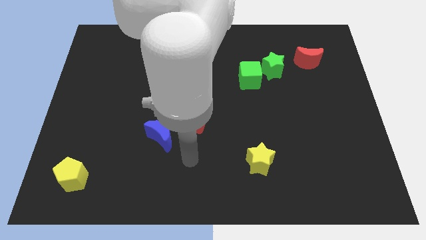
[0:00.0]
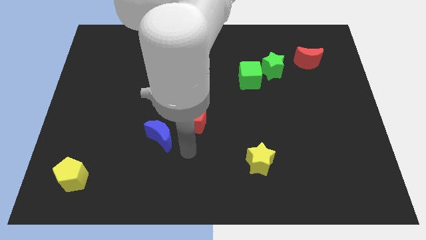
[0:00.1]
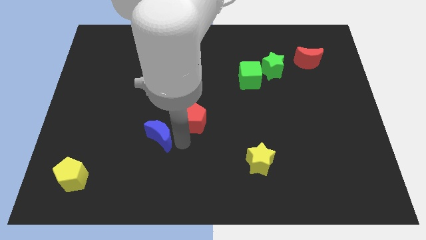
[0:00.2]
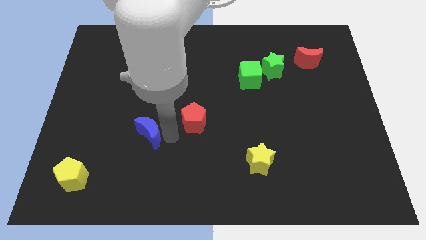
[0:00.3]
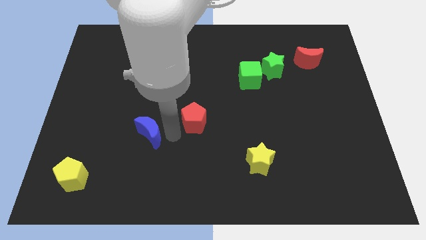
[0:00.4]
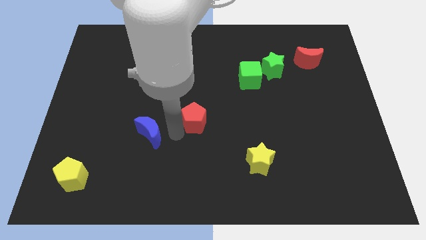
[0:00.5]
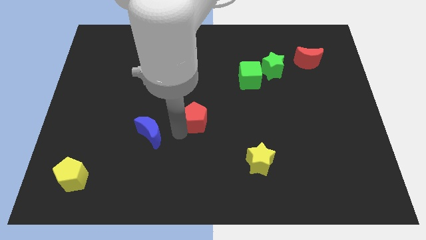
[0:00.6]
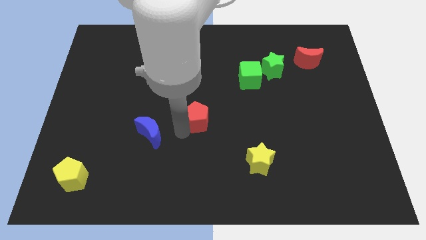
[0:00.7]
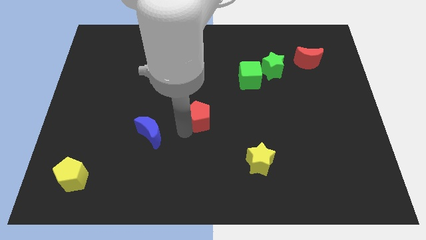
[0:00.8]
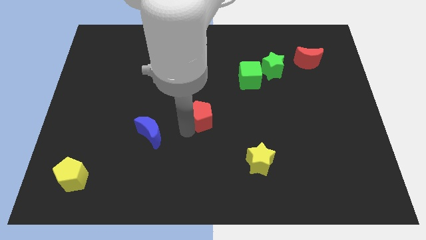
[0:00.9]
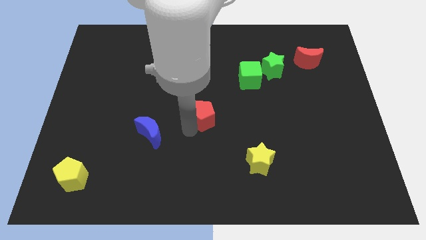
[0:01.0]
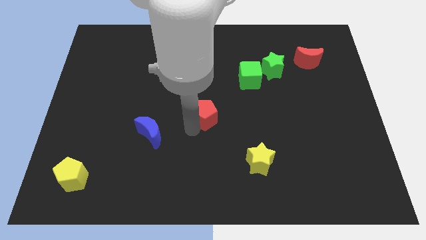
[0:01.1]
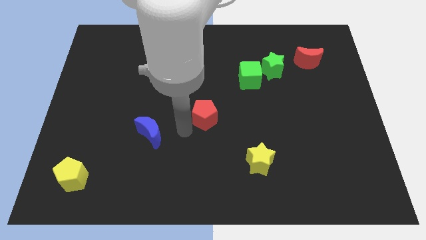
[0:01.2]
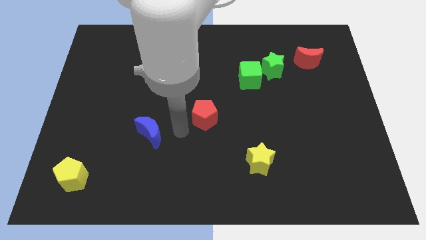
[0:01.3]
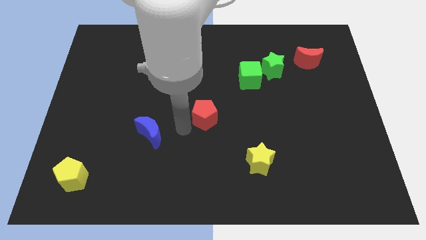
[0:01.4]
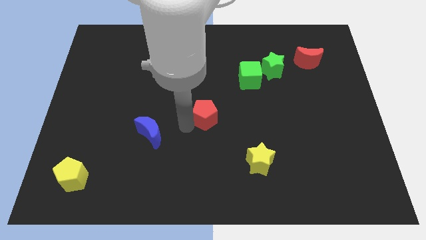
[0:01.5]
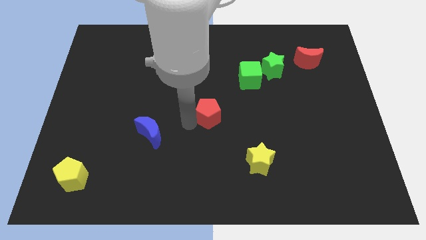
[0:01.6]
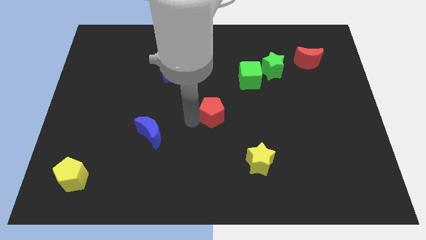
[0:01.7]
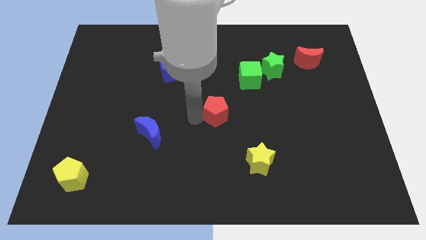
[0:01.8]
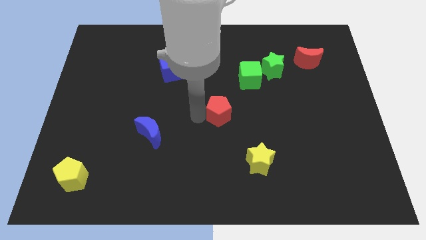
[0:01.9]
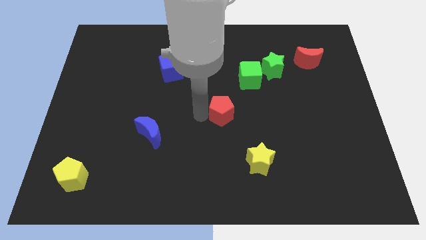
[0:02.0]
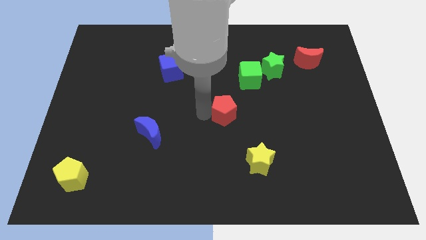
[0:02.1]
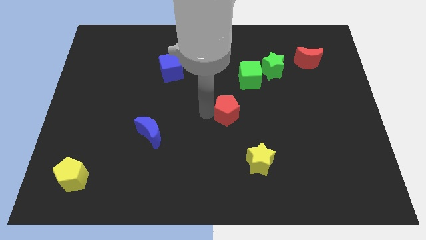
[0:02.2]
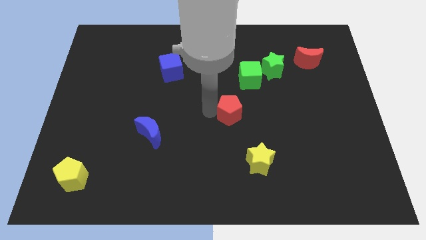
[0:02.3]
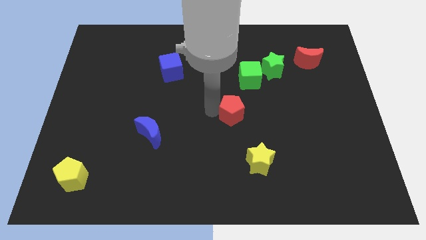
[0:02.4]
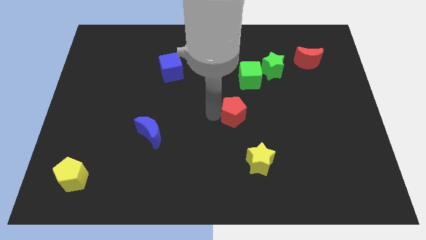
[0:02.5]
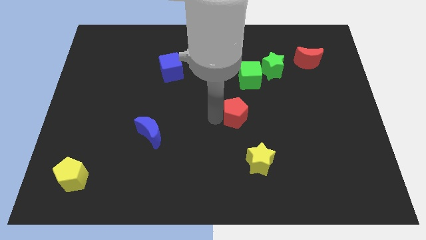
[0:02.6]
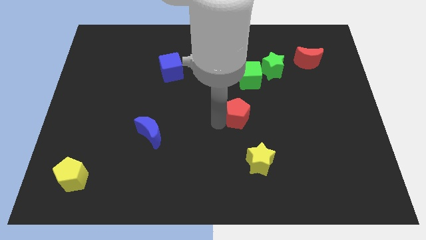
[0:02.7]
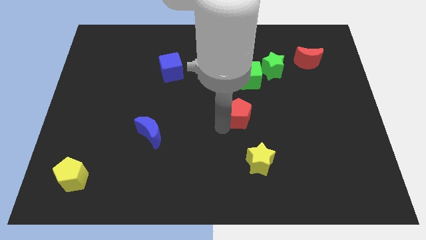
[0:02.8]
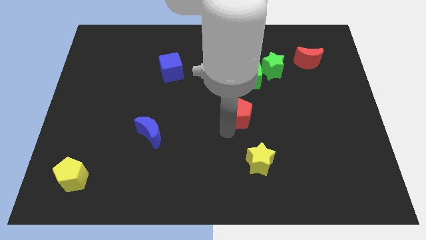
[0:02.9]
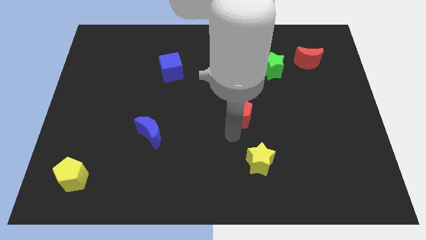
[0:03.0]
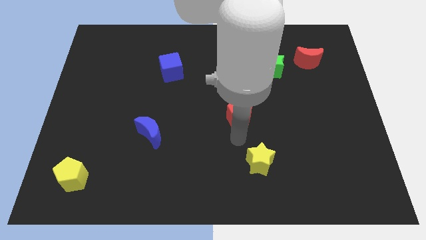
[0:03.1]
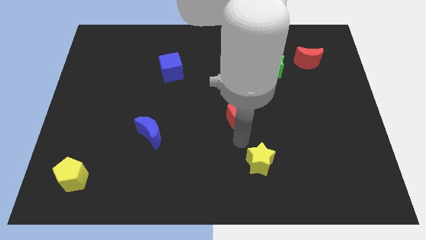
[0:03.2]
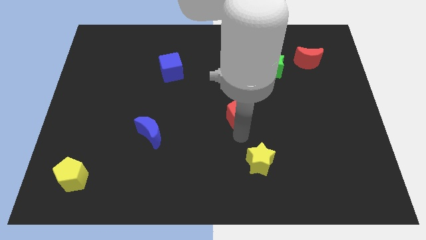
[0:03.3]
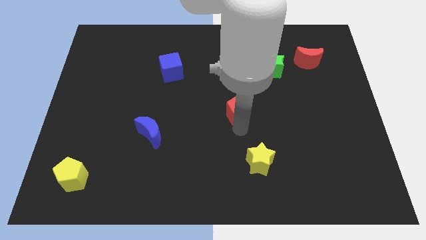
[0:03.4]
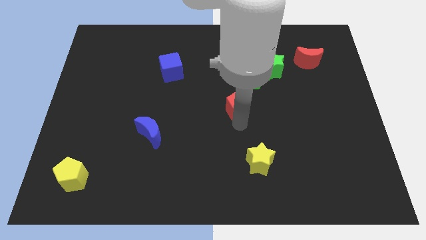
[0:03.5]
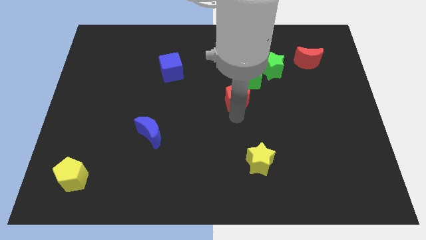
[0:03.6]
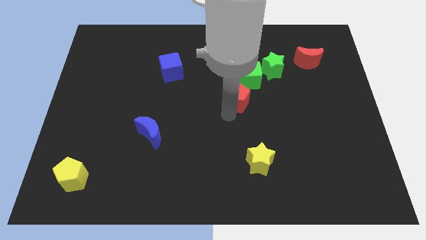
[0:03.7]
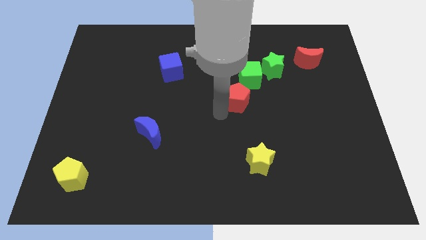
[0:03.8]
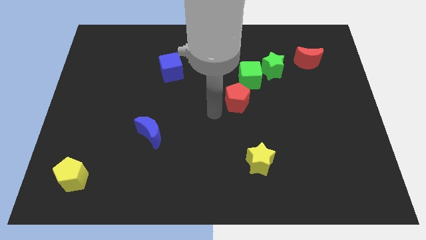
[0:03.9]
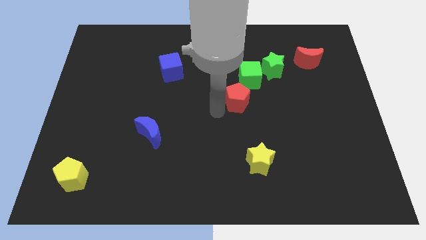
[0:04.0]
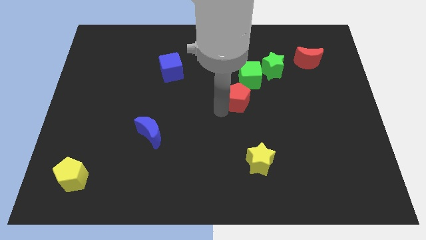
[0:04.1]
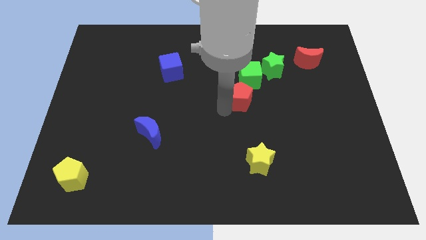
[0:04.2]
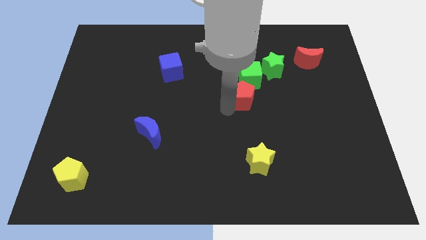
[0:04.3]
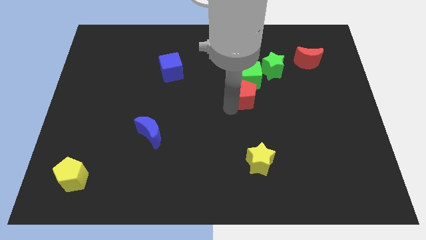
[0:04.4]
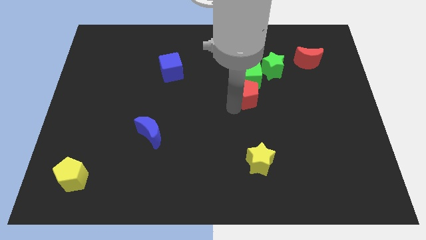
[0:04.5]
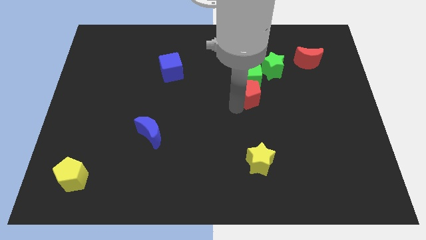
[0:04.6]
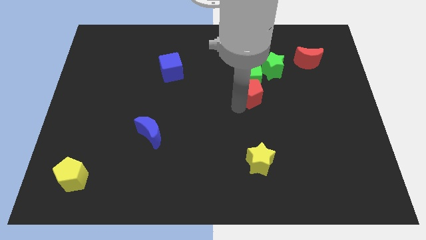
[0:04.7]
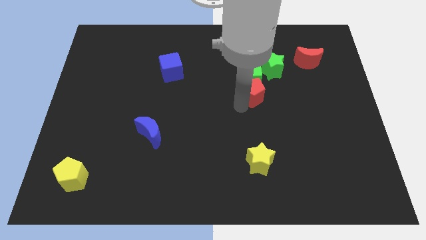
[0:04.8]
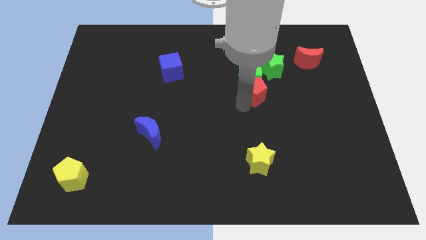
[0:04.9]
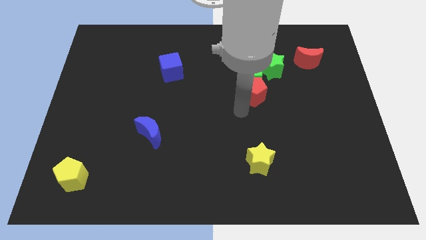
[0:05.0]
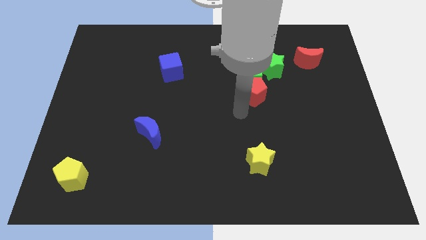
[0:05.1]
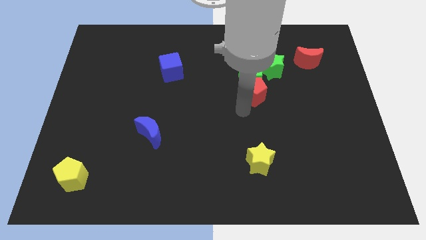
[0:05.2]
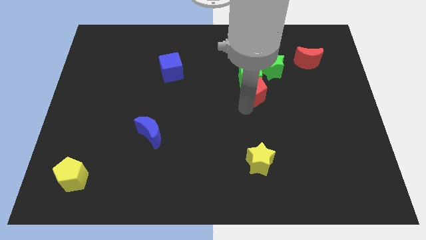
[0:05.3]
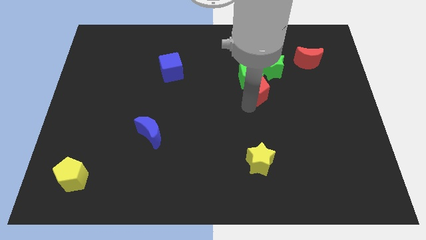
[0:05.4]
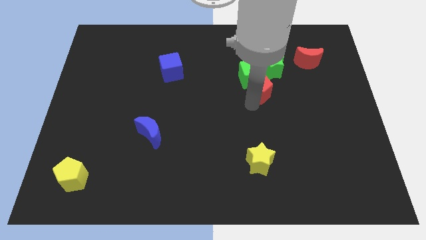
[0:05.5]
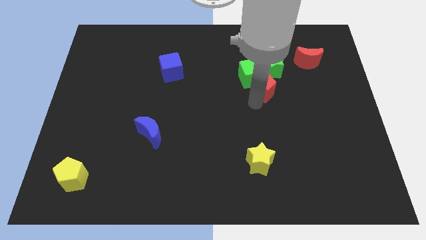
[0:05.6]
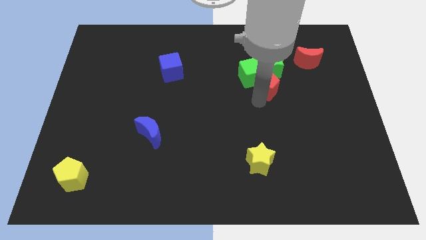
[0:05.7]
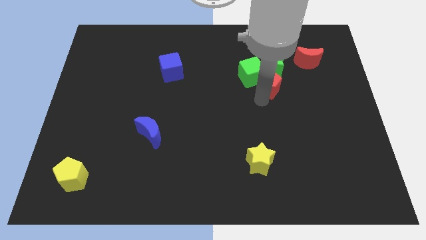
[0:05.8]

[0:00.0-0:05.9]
slide the red pentagon close to the green star

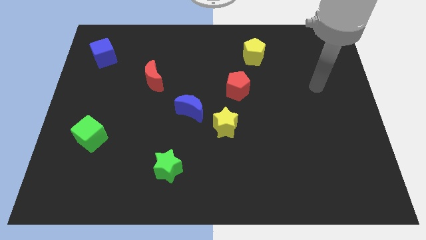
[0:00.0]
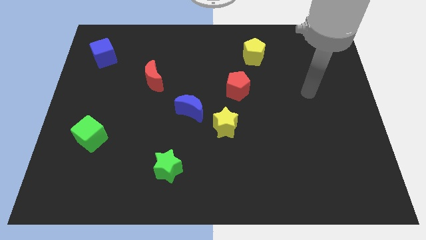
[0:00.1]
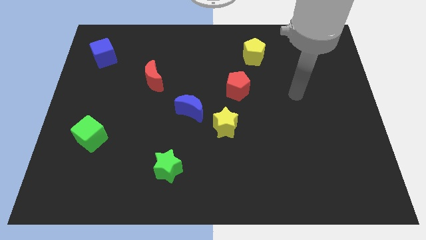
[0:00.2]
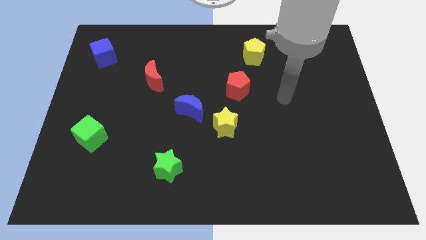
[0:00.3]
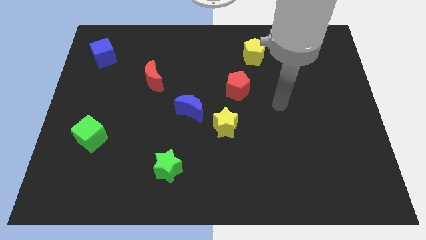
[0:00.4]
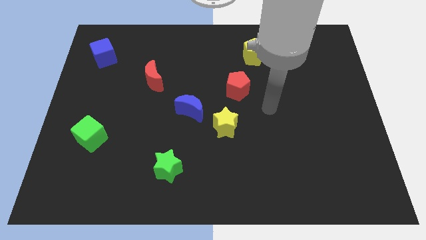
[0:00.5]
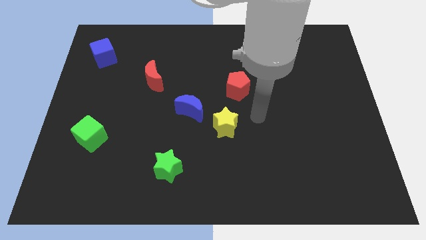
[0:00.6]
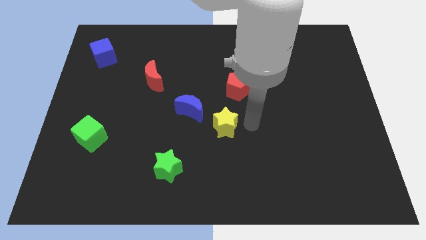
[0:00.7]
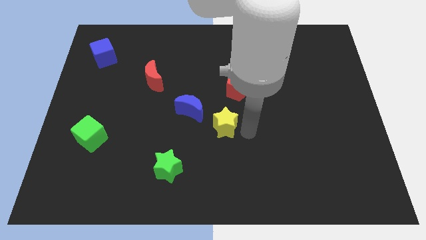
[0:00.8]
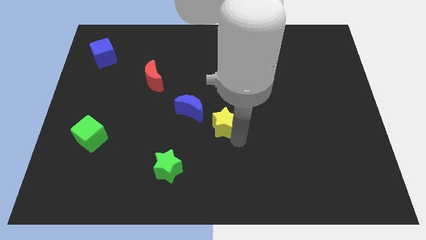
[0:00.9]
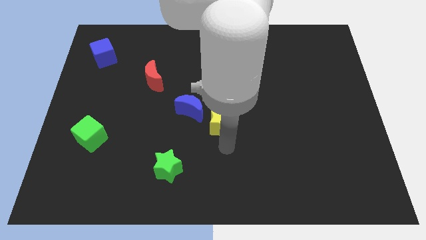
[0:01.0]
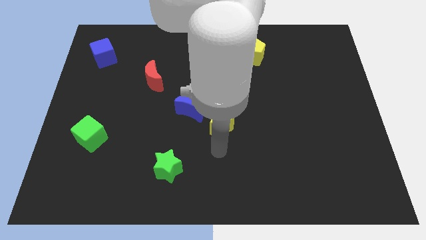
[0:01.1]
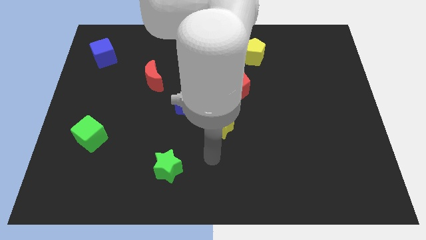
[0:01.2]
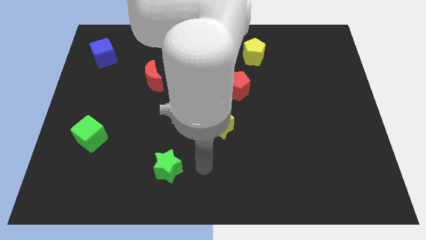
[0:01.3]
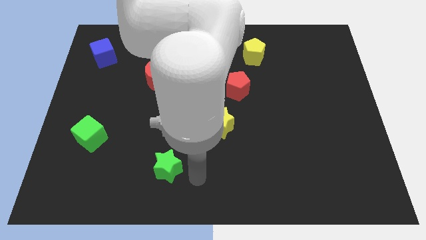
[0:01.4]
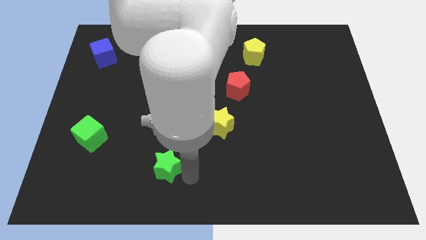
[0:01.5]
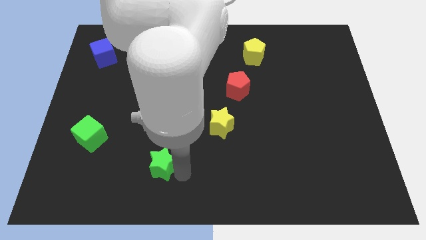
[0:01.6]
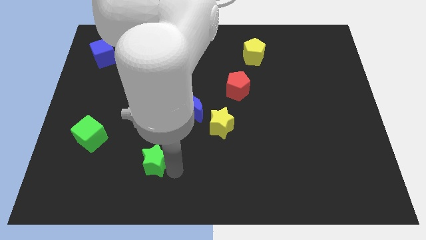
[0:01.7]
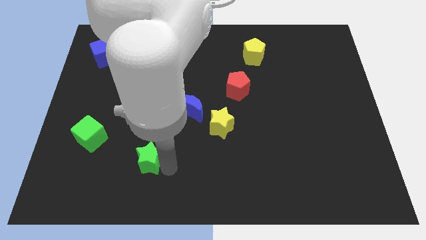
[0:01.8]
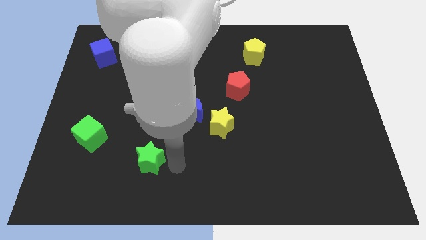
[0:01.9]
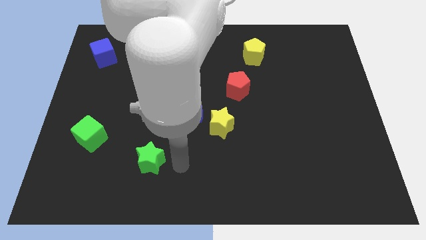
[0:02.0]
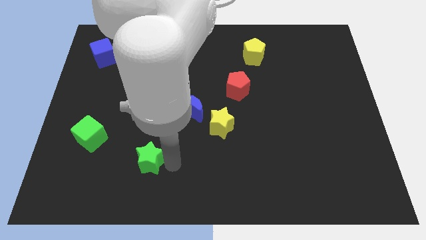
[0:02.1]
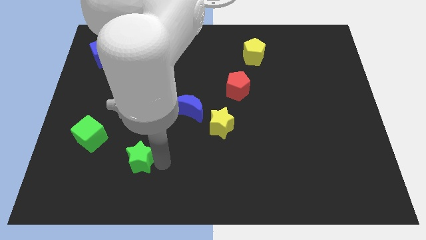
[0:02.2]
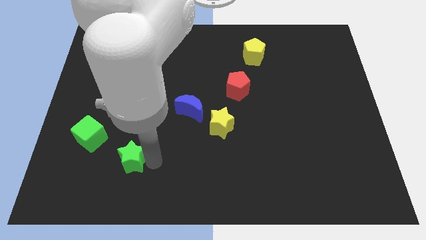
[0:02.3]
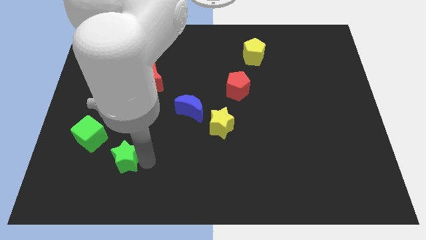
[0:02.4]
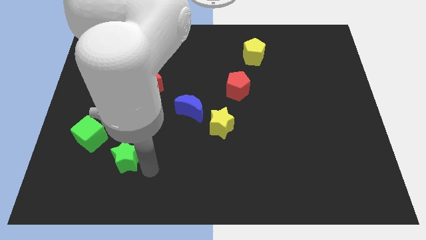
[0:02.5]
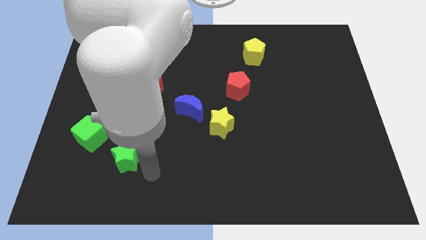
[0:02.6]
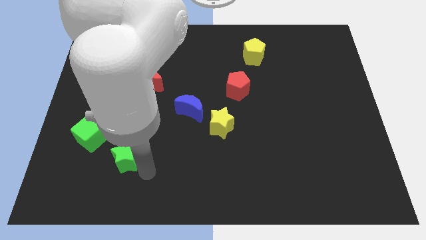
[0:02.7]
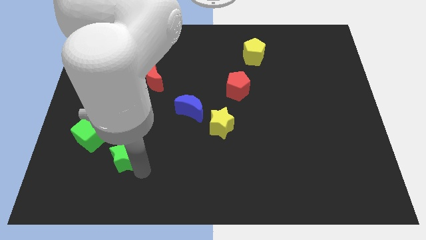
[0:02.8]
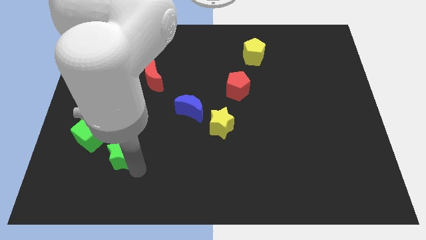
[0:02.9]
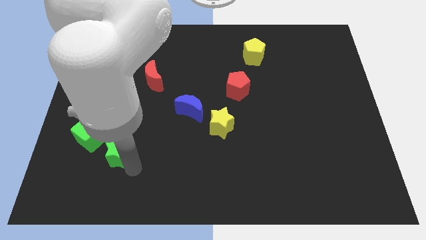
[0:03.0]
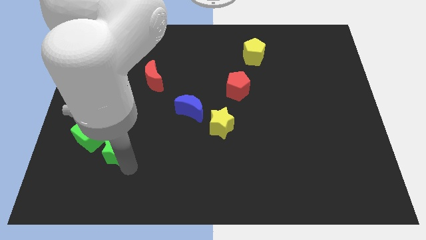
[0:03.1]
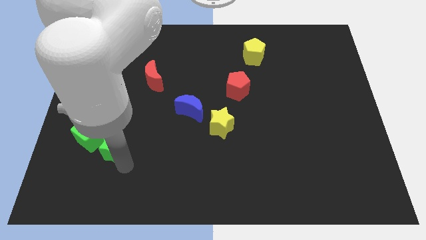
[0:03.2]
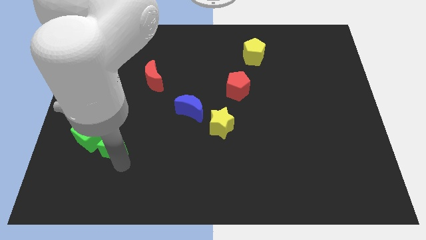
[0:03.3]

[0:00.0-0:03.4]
move the green star close to the green cube
